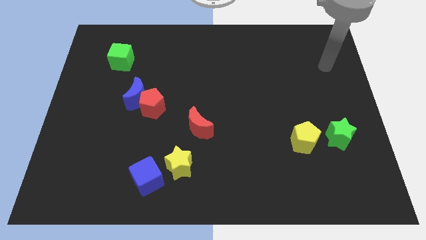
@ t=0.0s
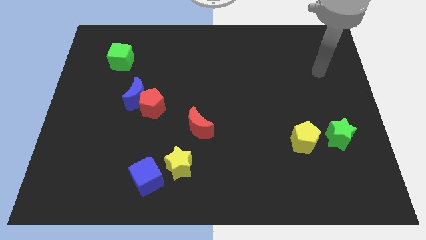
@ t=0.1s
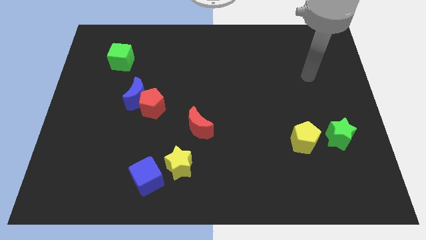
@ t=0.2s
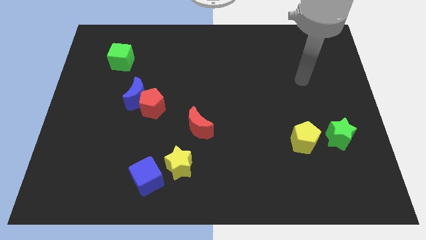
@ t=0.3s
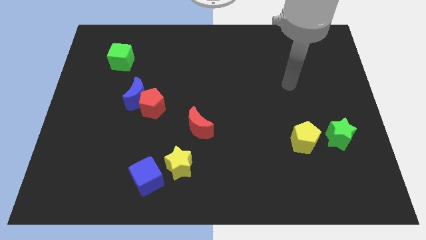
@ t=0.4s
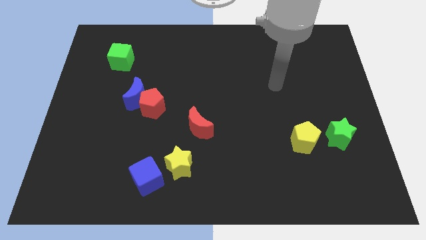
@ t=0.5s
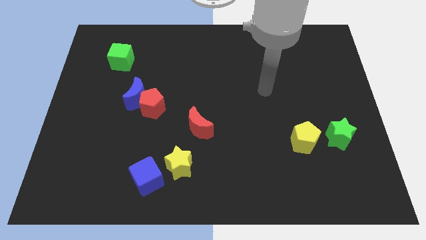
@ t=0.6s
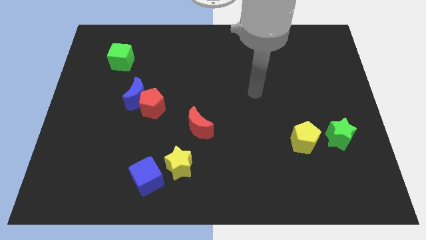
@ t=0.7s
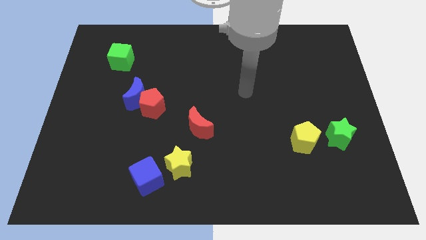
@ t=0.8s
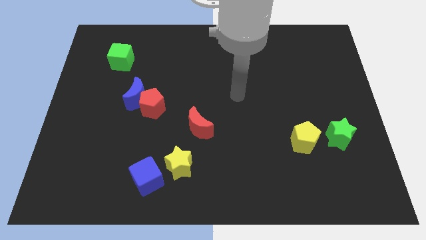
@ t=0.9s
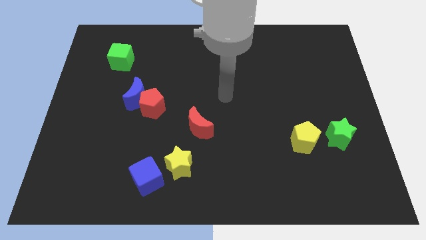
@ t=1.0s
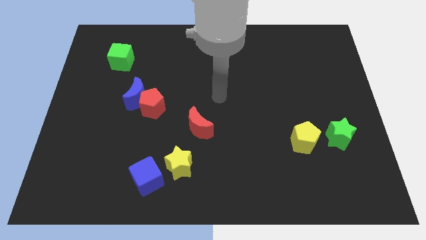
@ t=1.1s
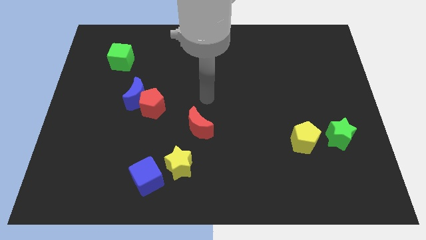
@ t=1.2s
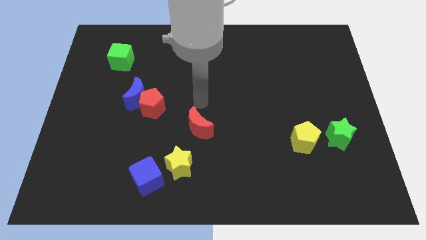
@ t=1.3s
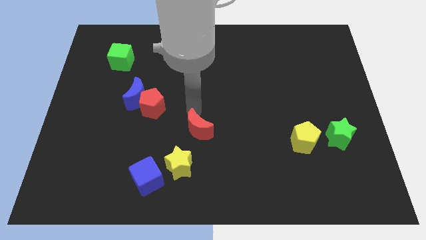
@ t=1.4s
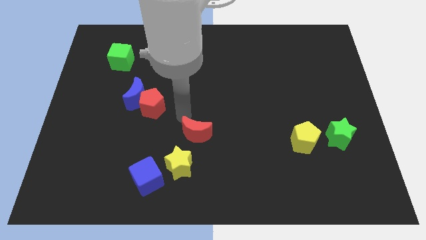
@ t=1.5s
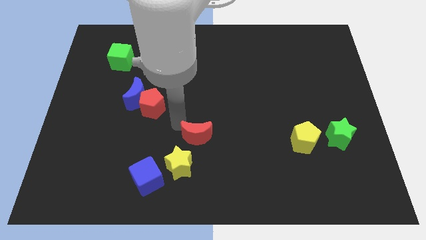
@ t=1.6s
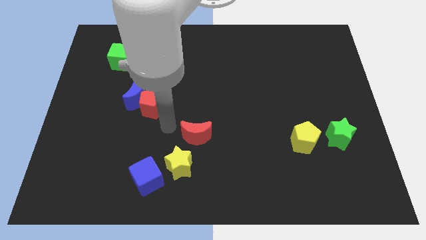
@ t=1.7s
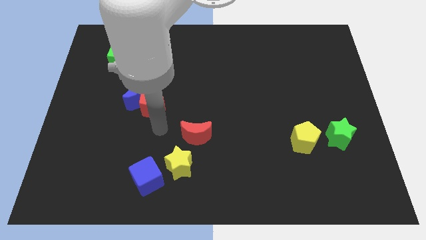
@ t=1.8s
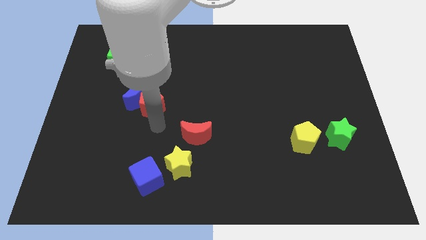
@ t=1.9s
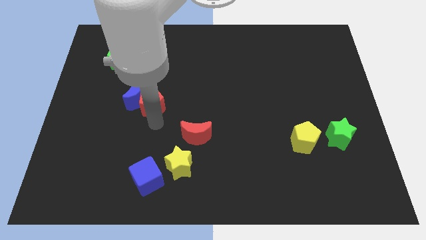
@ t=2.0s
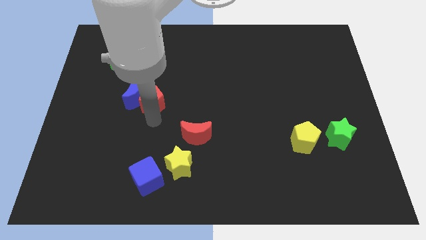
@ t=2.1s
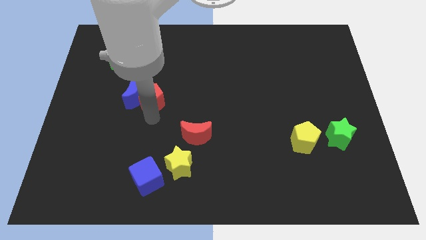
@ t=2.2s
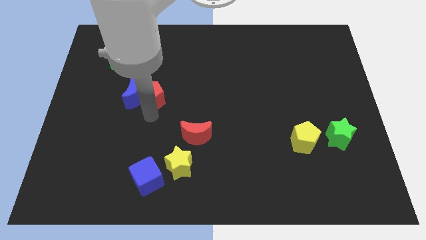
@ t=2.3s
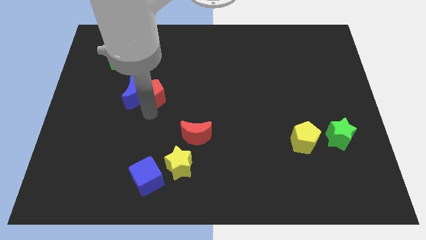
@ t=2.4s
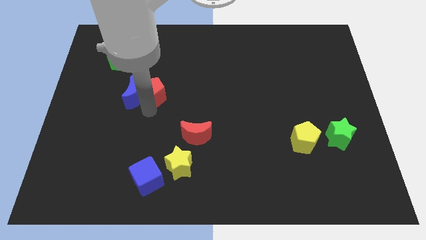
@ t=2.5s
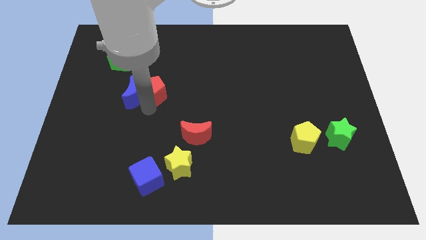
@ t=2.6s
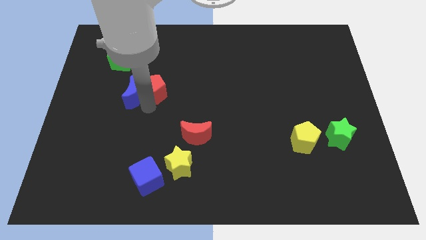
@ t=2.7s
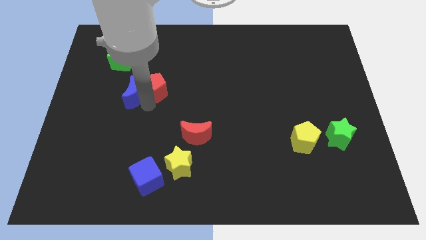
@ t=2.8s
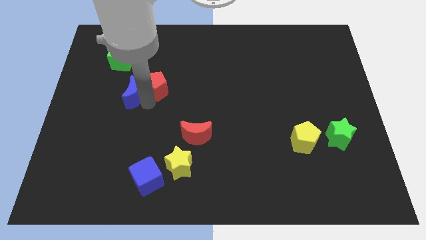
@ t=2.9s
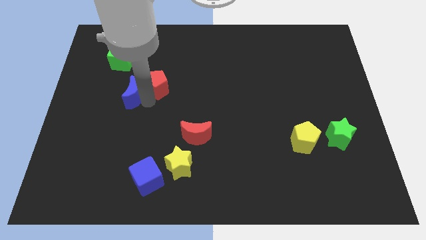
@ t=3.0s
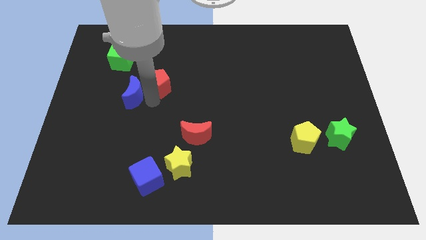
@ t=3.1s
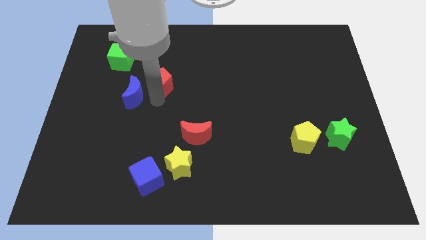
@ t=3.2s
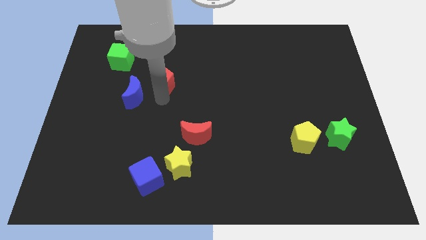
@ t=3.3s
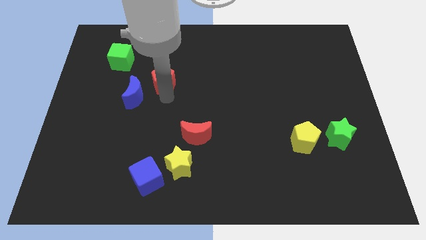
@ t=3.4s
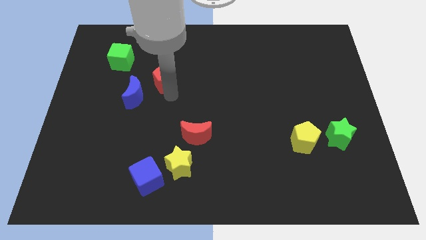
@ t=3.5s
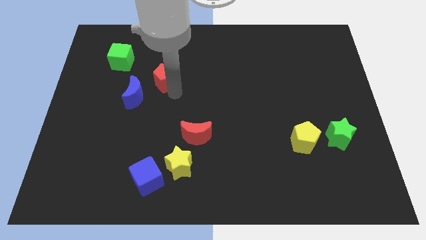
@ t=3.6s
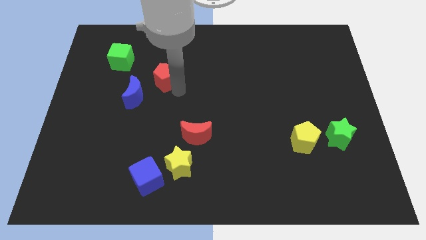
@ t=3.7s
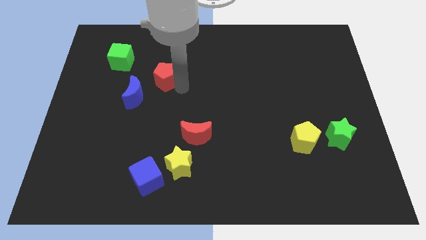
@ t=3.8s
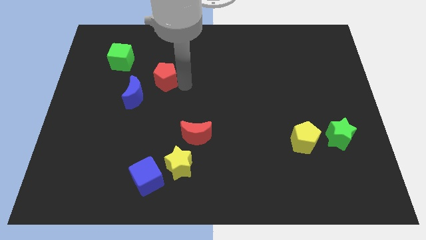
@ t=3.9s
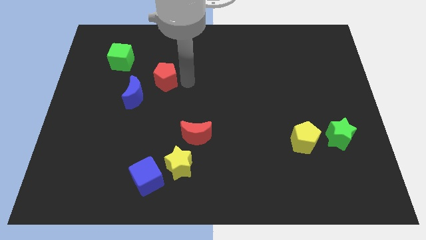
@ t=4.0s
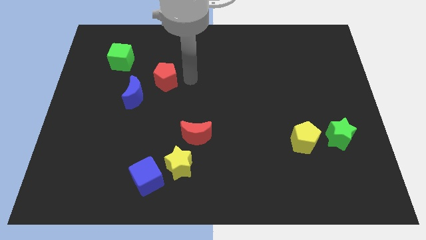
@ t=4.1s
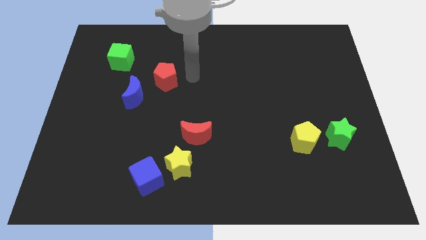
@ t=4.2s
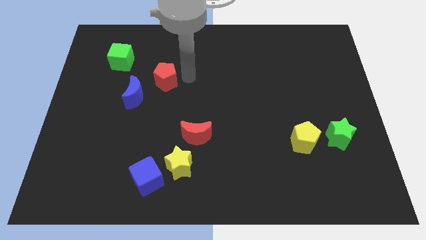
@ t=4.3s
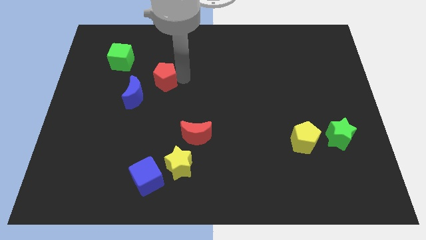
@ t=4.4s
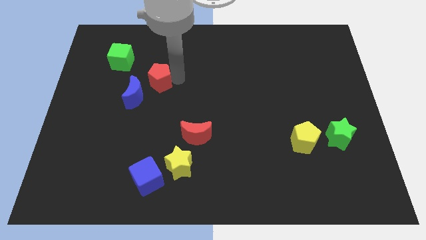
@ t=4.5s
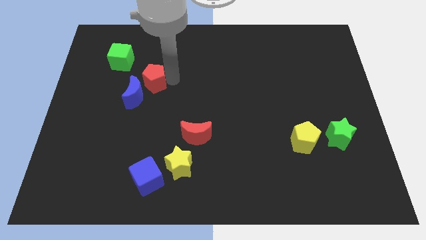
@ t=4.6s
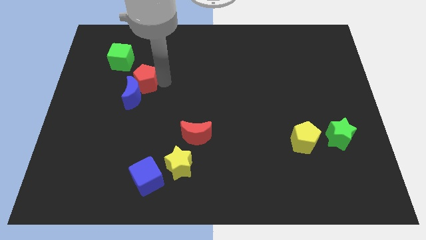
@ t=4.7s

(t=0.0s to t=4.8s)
slide the red pentagon upwards and left diagonally somewhat

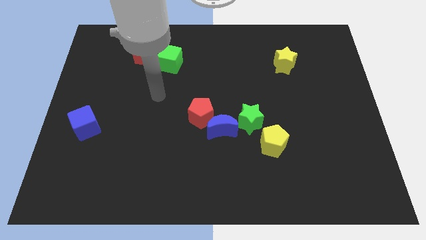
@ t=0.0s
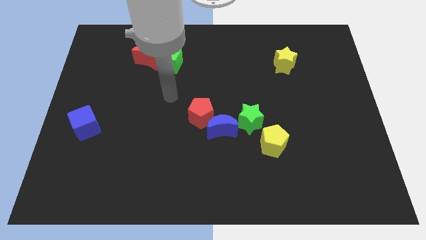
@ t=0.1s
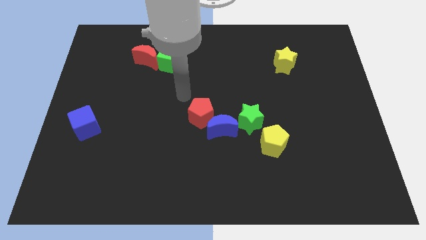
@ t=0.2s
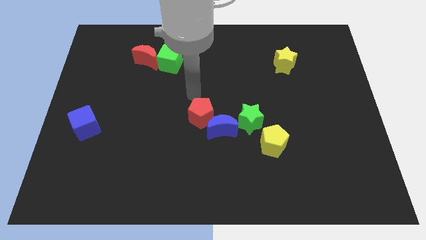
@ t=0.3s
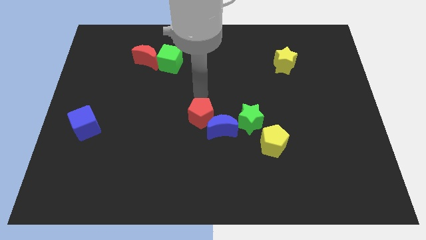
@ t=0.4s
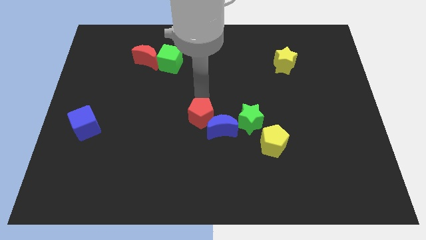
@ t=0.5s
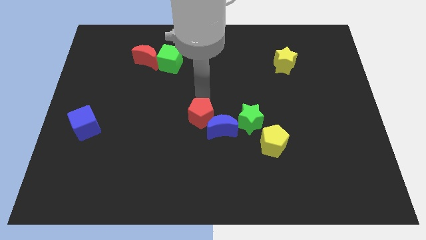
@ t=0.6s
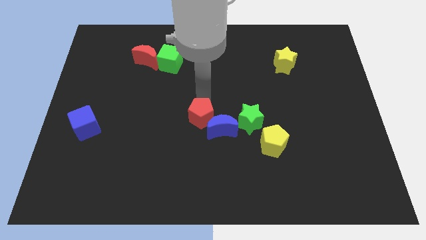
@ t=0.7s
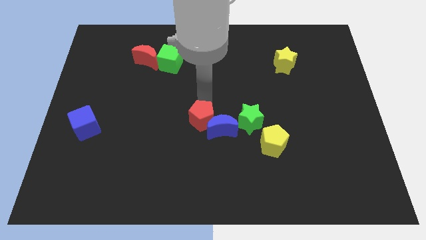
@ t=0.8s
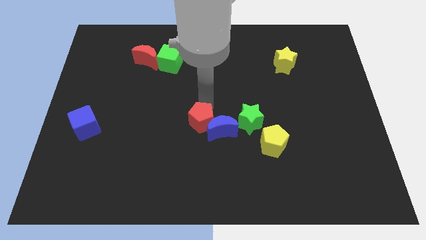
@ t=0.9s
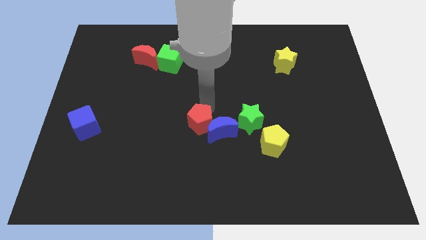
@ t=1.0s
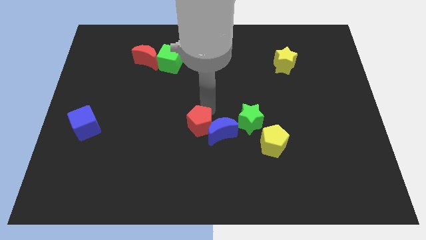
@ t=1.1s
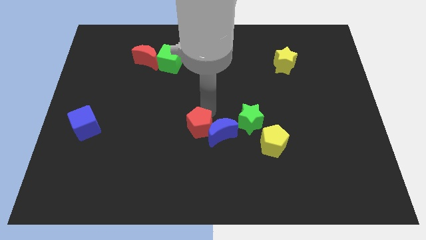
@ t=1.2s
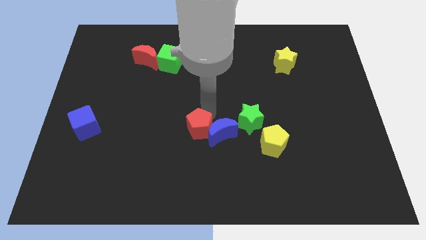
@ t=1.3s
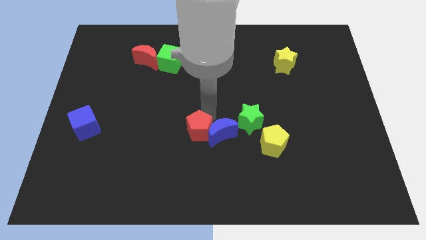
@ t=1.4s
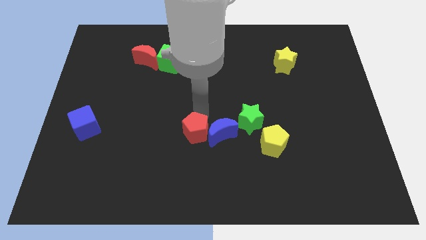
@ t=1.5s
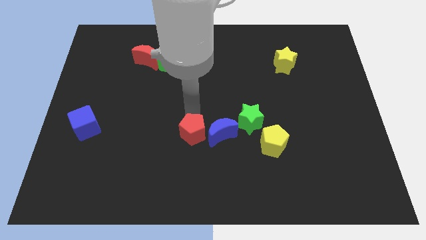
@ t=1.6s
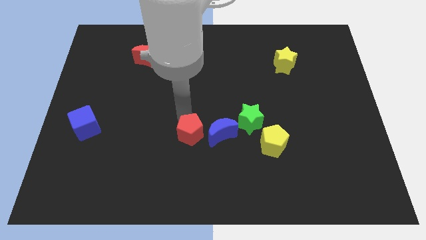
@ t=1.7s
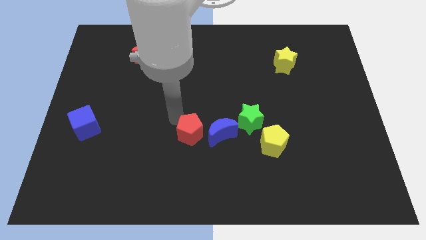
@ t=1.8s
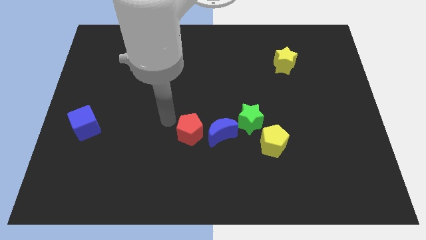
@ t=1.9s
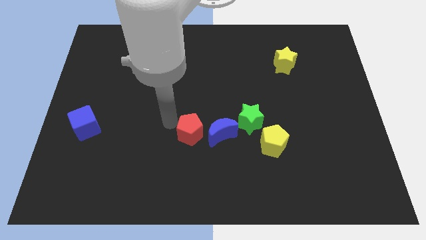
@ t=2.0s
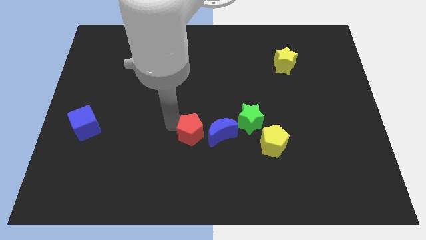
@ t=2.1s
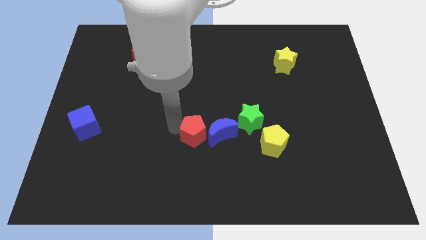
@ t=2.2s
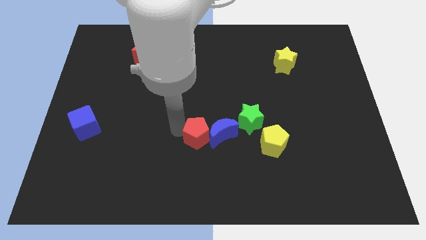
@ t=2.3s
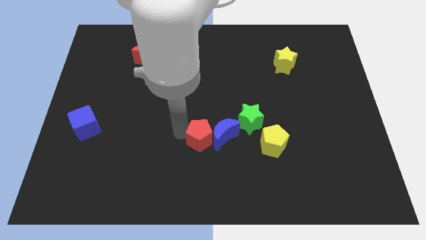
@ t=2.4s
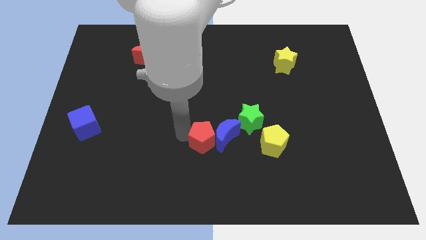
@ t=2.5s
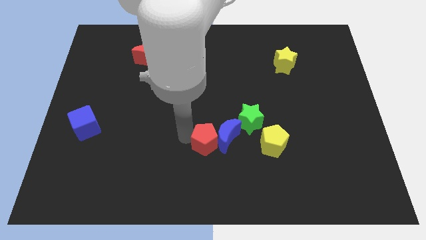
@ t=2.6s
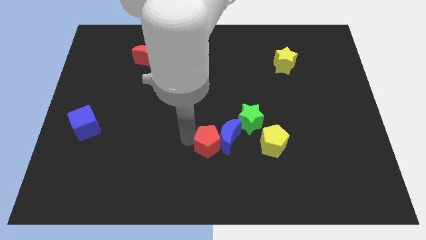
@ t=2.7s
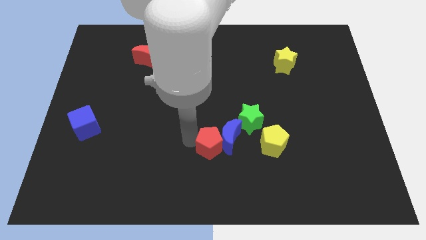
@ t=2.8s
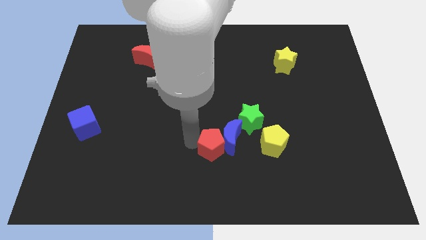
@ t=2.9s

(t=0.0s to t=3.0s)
push the red pentagon down and right slightly
